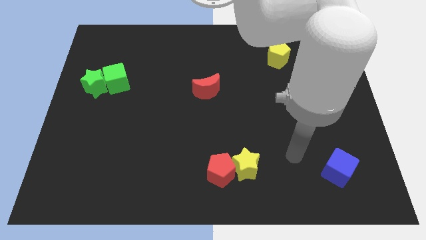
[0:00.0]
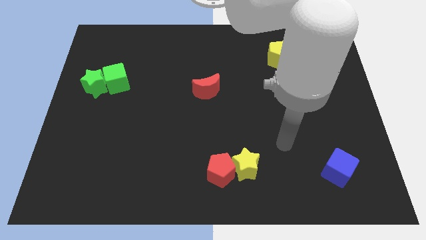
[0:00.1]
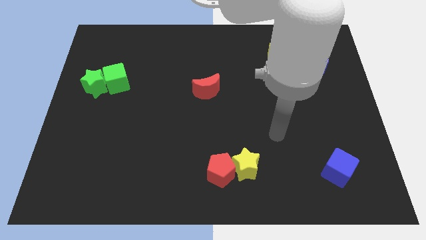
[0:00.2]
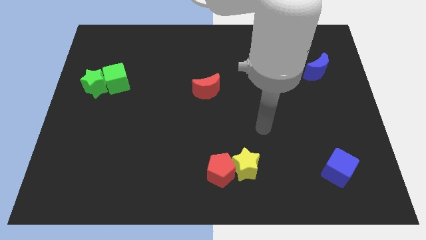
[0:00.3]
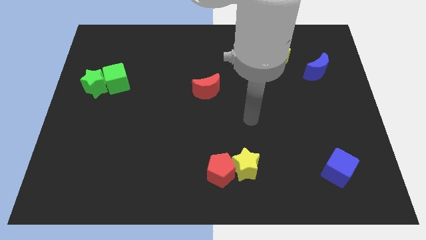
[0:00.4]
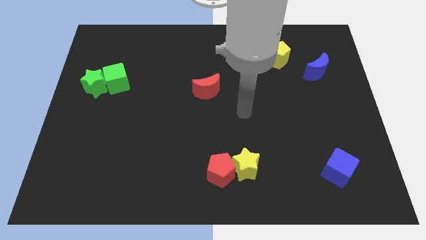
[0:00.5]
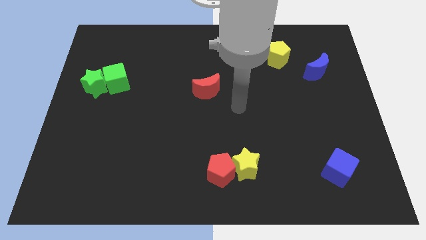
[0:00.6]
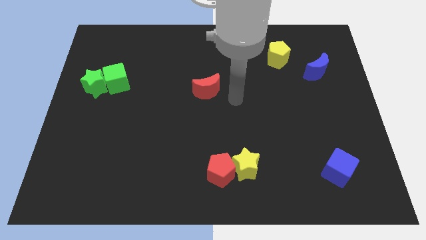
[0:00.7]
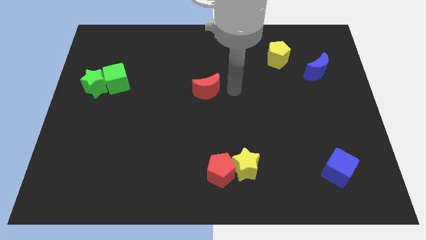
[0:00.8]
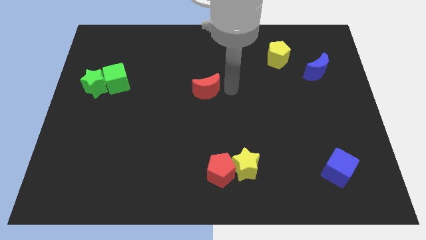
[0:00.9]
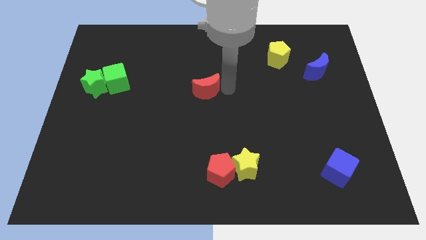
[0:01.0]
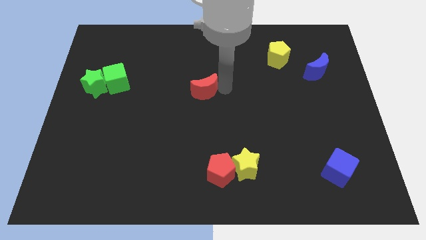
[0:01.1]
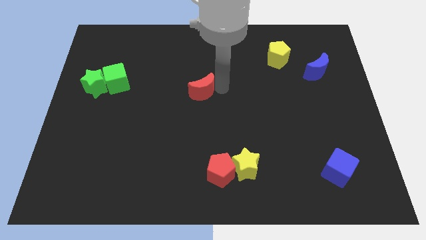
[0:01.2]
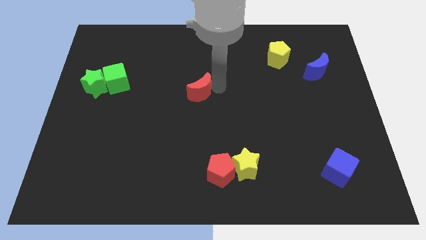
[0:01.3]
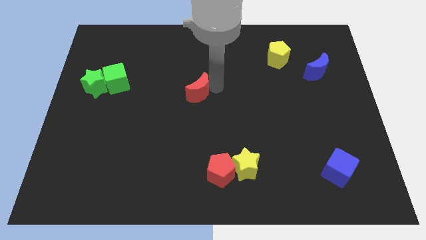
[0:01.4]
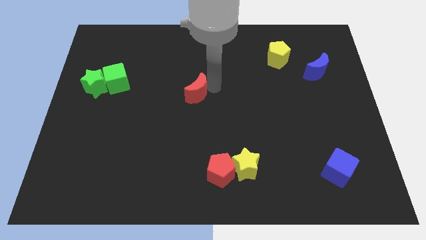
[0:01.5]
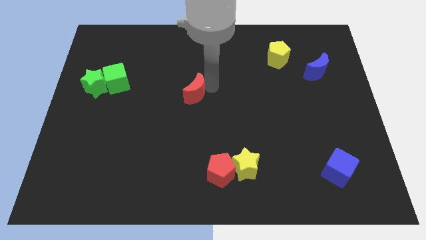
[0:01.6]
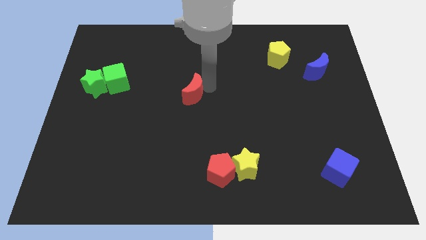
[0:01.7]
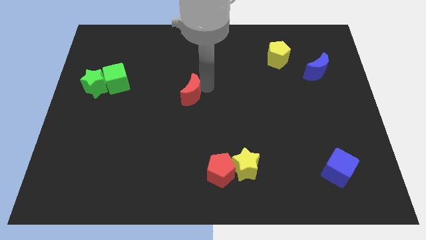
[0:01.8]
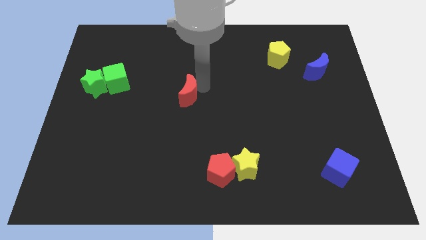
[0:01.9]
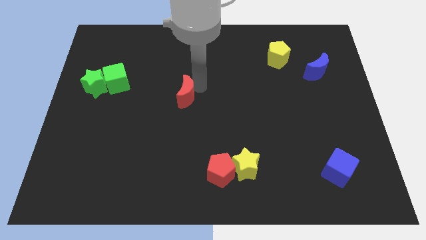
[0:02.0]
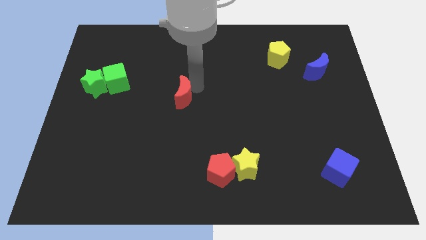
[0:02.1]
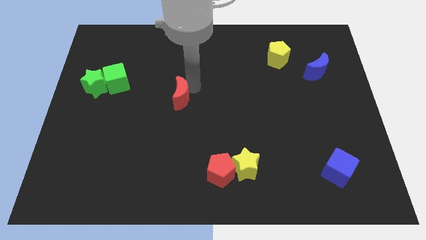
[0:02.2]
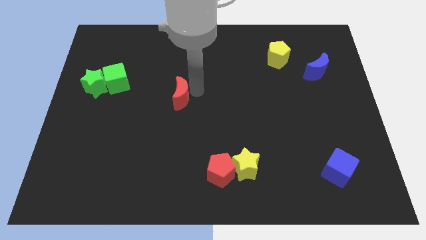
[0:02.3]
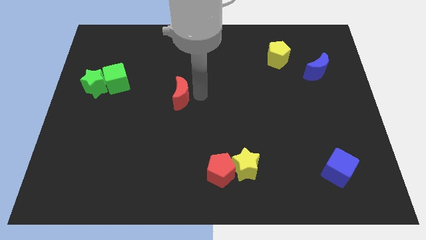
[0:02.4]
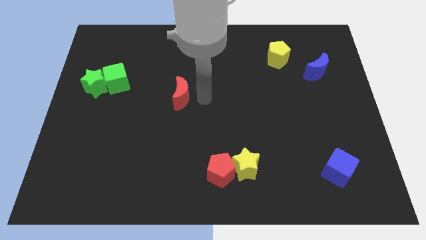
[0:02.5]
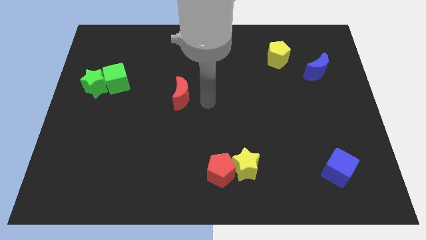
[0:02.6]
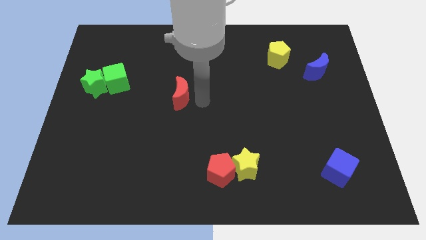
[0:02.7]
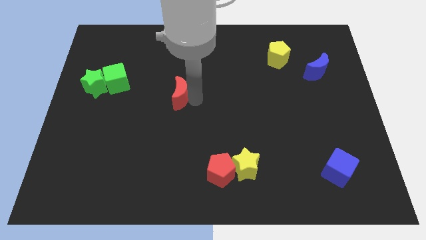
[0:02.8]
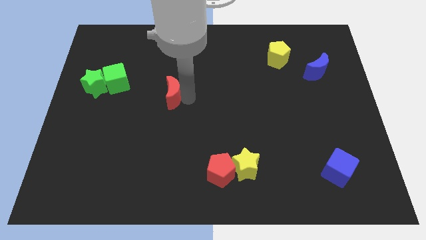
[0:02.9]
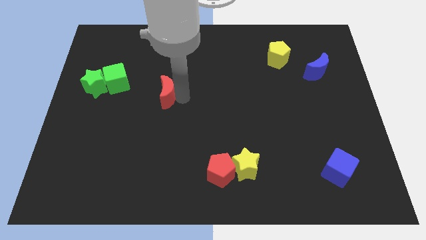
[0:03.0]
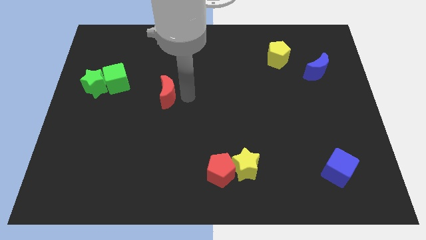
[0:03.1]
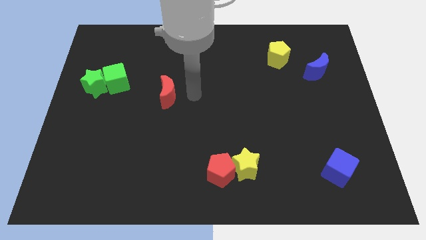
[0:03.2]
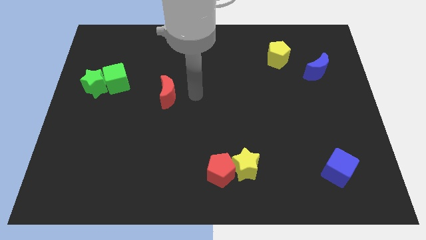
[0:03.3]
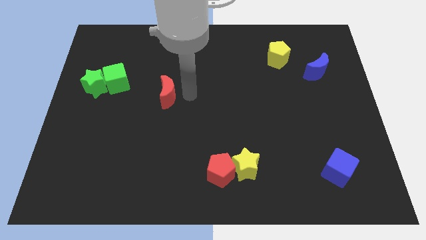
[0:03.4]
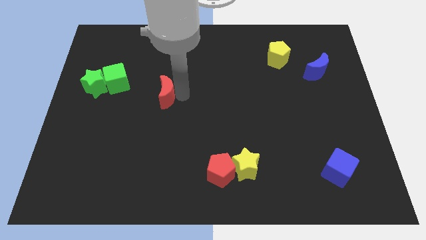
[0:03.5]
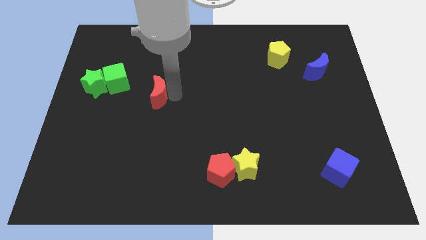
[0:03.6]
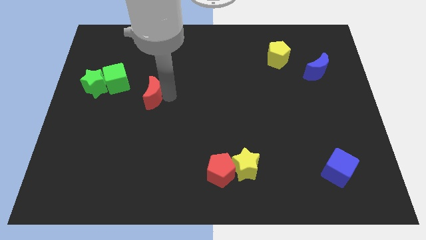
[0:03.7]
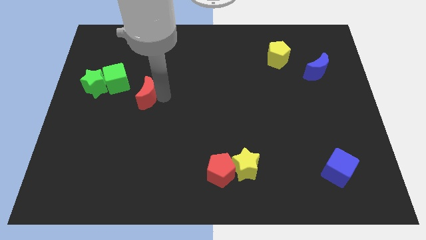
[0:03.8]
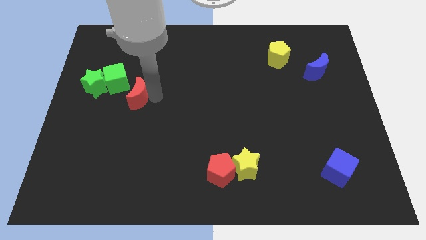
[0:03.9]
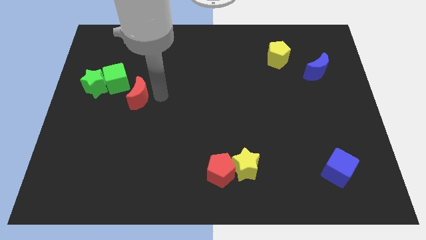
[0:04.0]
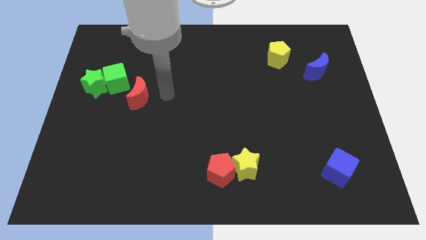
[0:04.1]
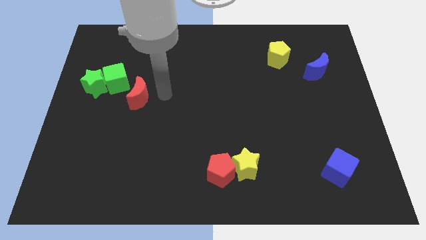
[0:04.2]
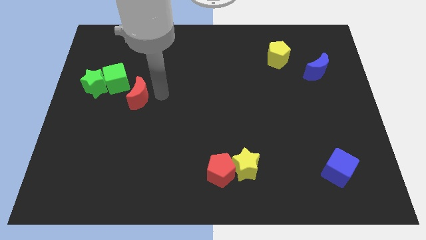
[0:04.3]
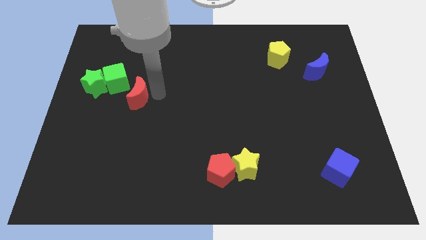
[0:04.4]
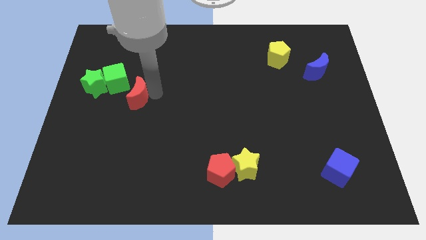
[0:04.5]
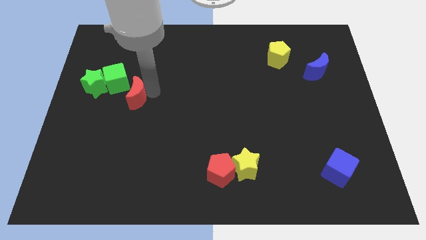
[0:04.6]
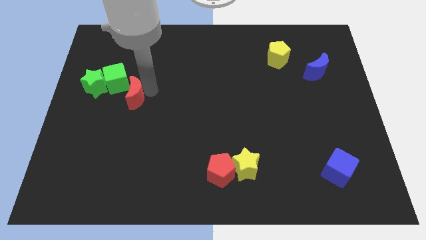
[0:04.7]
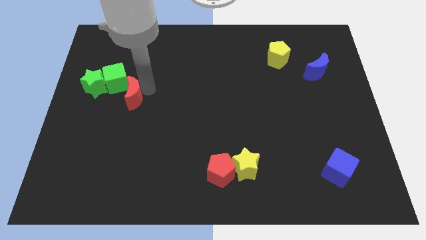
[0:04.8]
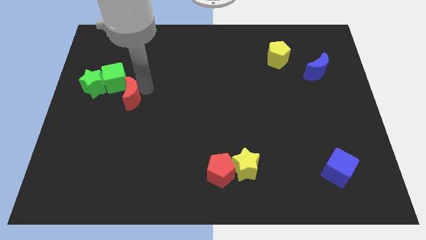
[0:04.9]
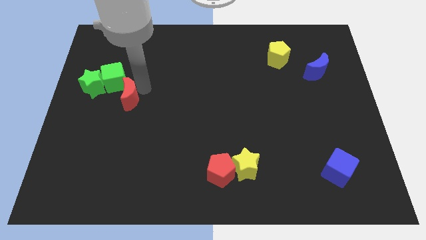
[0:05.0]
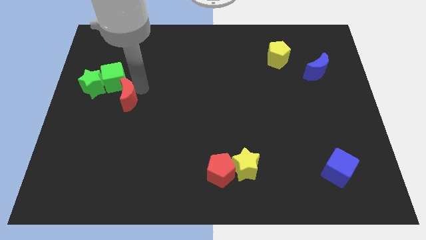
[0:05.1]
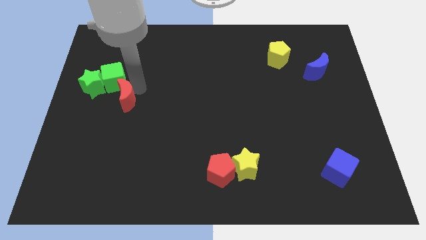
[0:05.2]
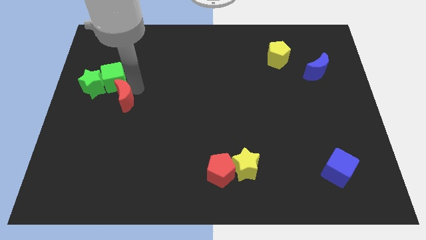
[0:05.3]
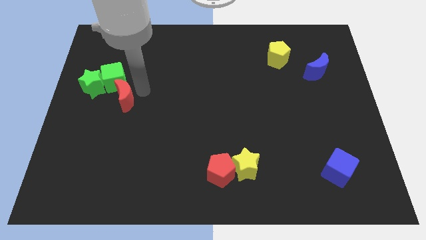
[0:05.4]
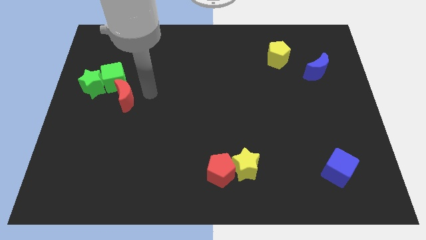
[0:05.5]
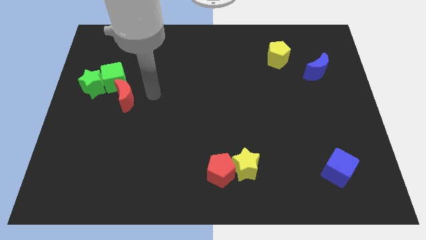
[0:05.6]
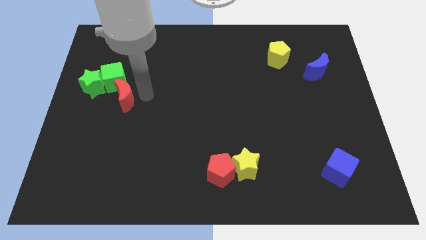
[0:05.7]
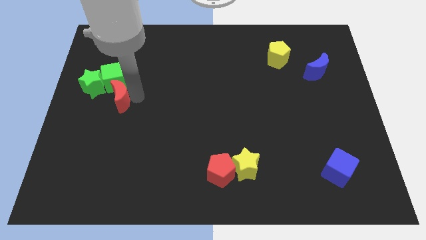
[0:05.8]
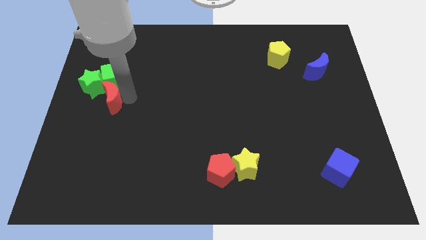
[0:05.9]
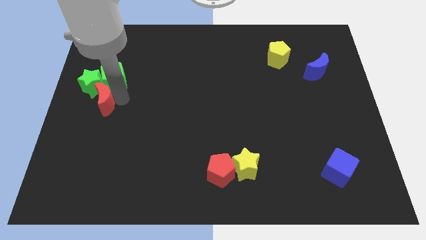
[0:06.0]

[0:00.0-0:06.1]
push the red moon to the center left
